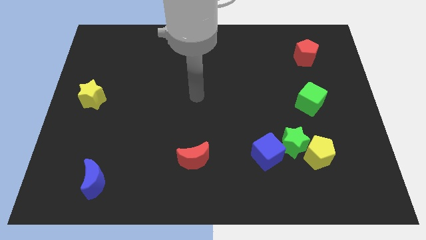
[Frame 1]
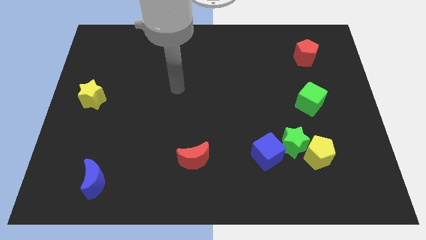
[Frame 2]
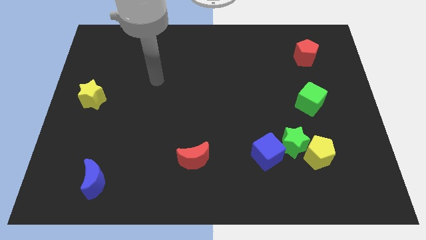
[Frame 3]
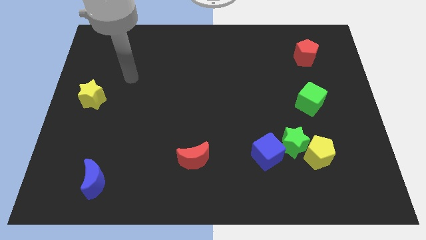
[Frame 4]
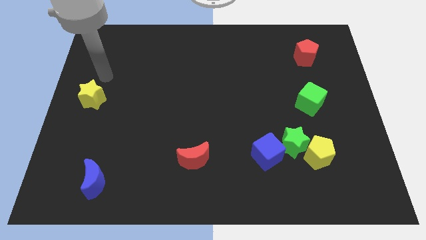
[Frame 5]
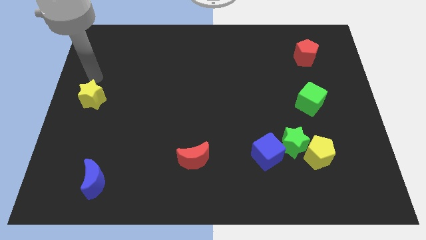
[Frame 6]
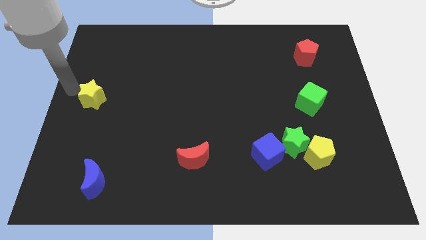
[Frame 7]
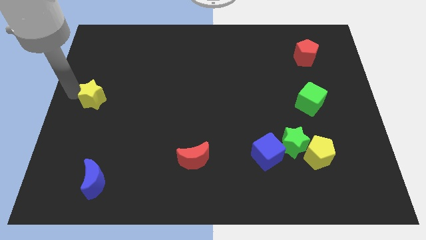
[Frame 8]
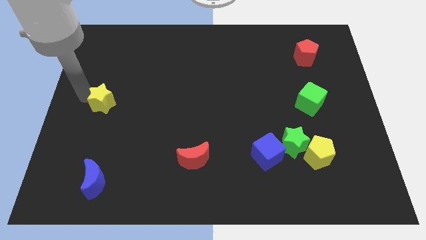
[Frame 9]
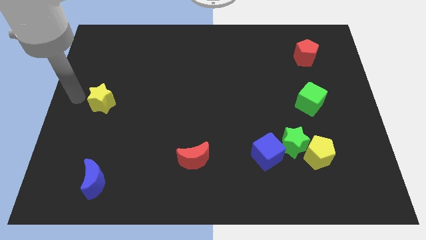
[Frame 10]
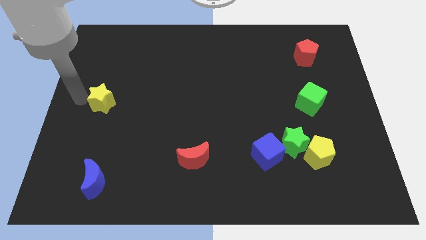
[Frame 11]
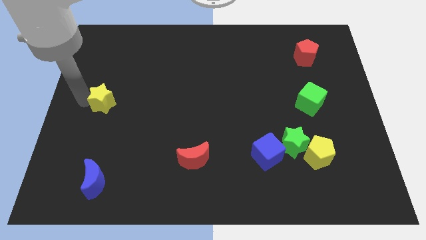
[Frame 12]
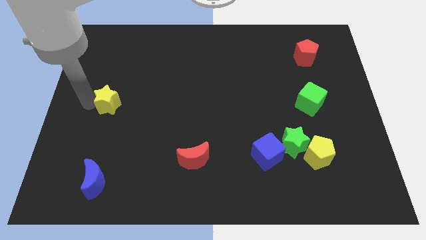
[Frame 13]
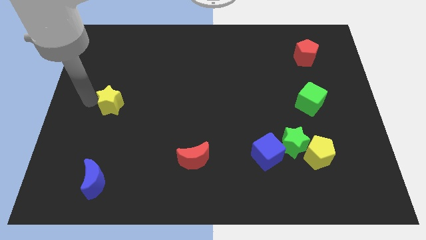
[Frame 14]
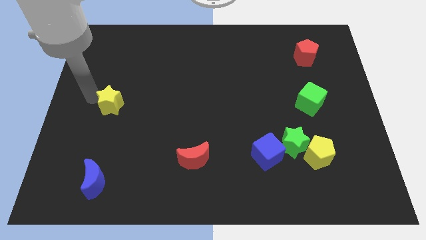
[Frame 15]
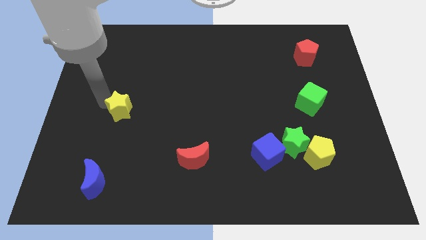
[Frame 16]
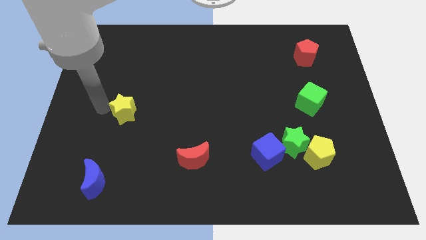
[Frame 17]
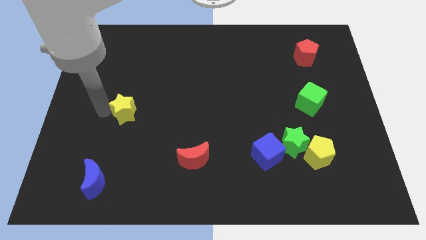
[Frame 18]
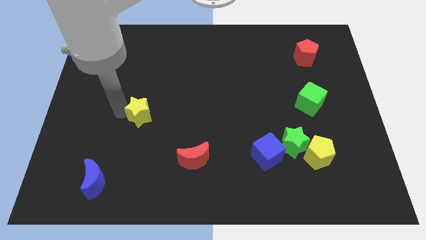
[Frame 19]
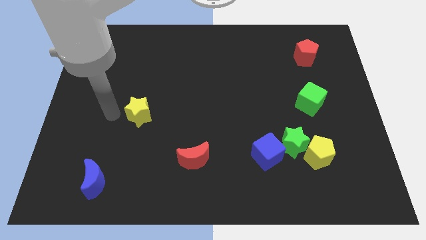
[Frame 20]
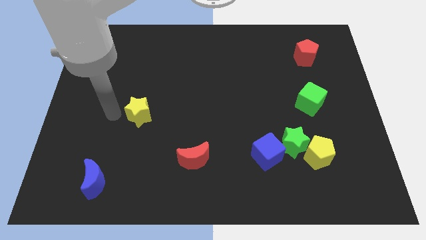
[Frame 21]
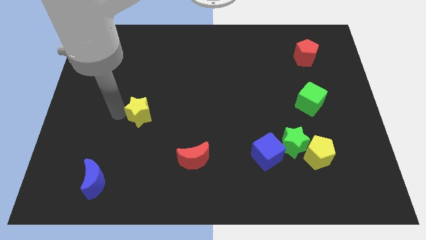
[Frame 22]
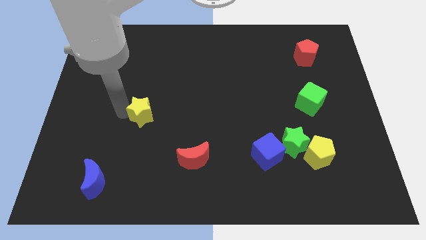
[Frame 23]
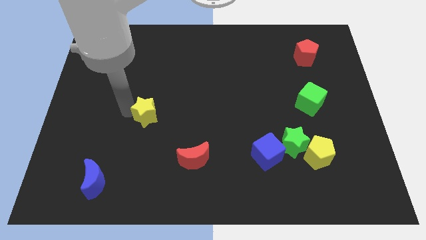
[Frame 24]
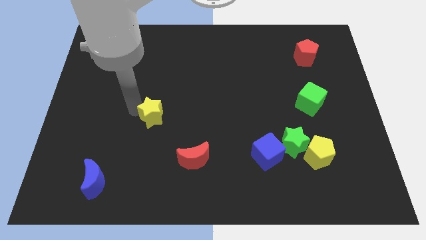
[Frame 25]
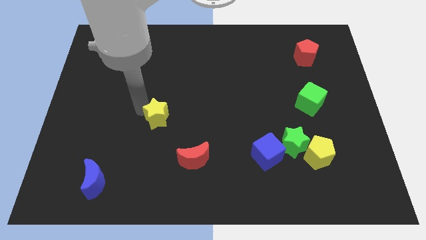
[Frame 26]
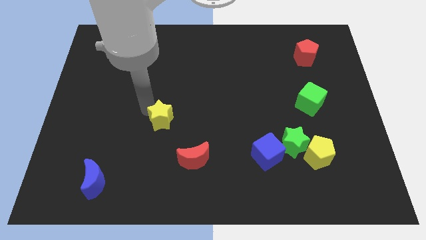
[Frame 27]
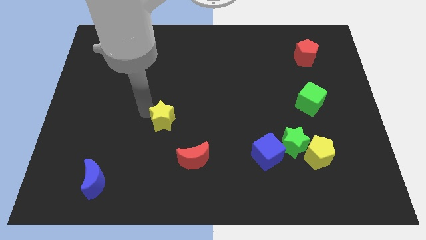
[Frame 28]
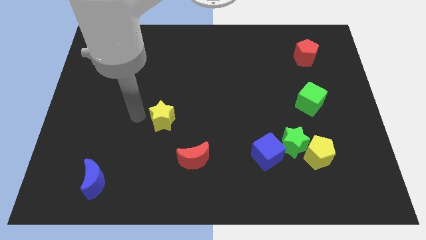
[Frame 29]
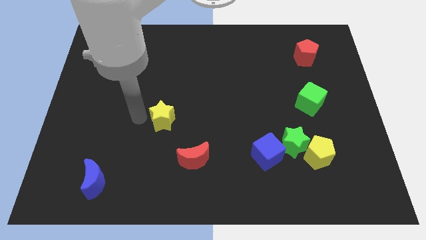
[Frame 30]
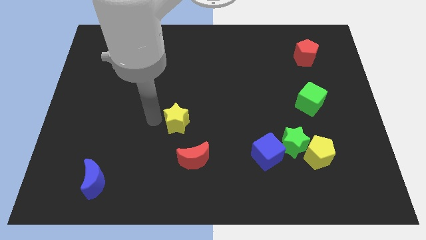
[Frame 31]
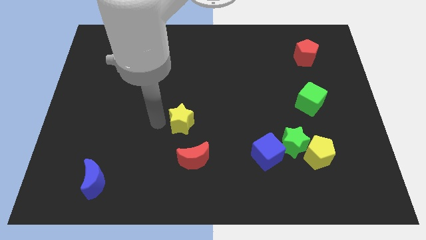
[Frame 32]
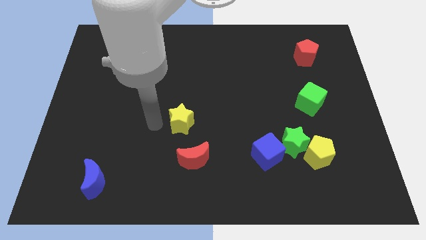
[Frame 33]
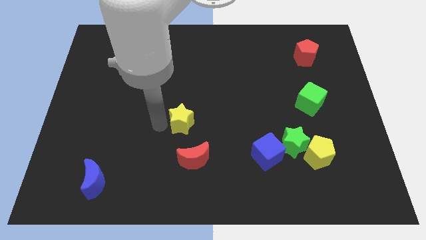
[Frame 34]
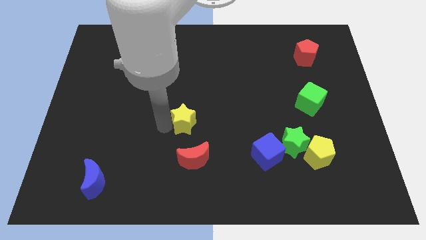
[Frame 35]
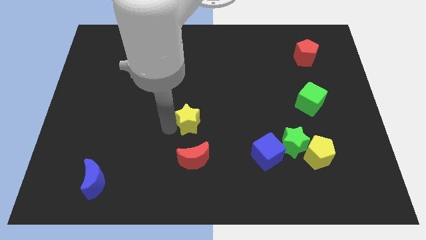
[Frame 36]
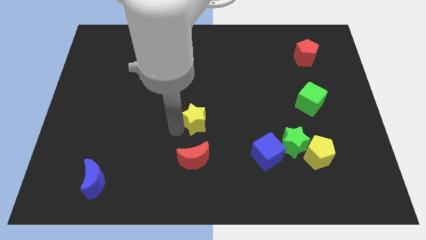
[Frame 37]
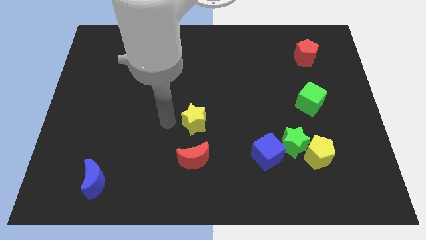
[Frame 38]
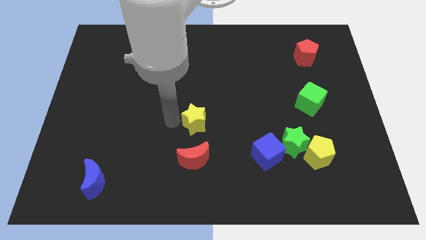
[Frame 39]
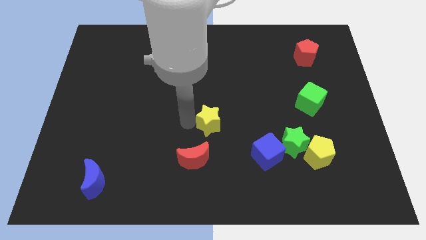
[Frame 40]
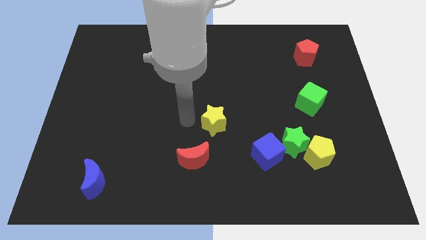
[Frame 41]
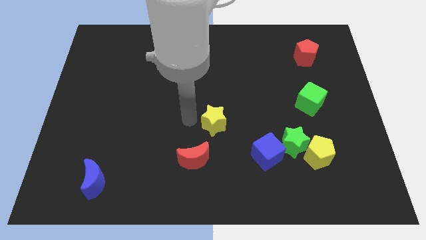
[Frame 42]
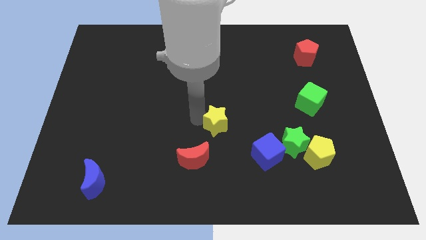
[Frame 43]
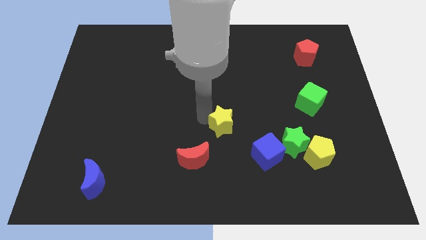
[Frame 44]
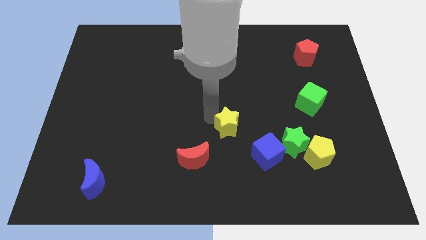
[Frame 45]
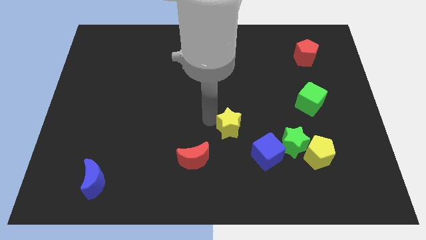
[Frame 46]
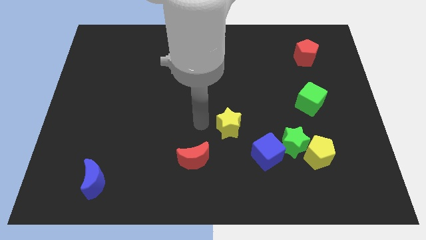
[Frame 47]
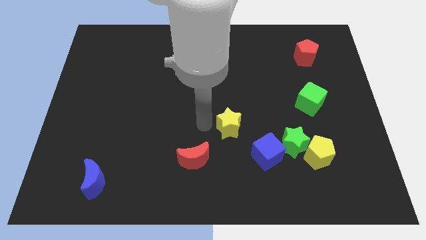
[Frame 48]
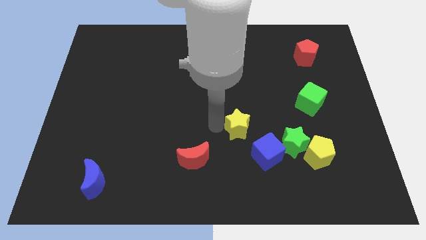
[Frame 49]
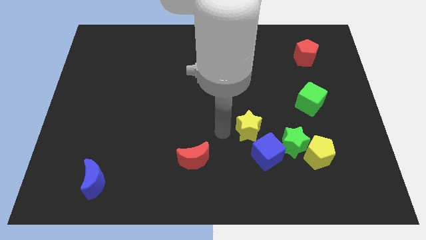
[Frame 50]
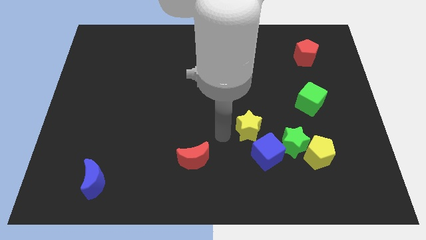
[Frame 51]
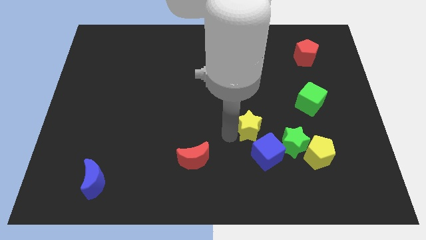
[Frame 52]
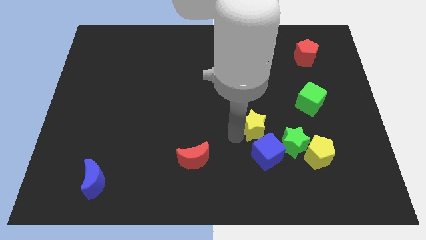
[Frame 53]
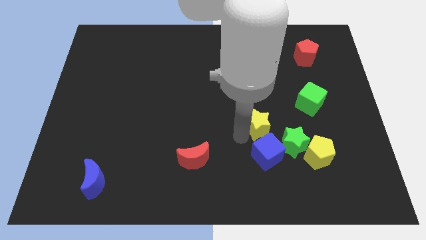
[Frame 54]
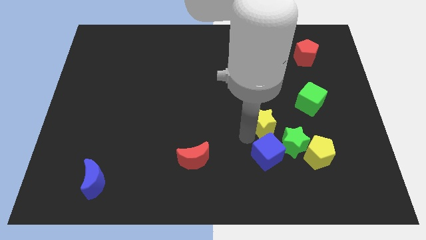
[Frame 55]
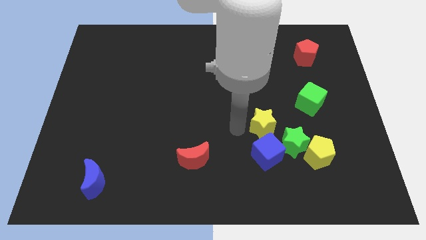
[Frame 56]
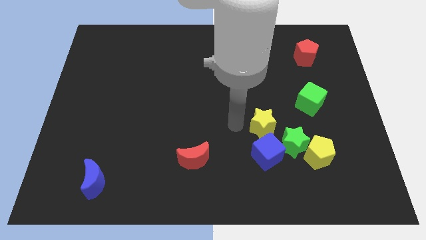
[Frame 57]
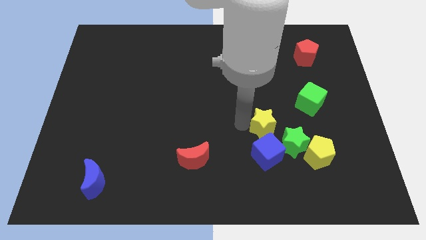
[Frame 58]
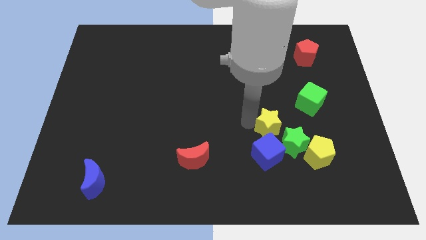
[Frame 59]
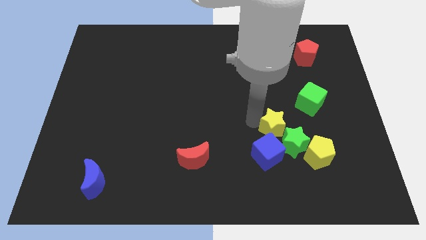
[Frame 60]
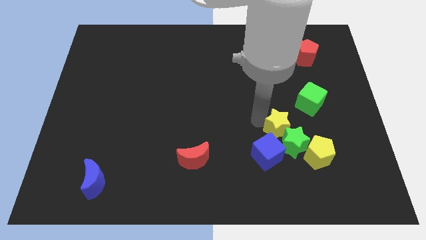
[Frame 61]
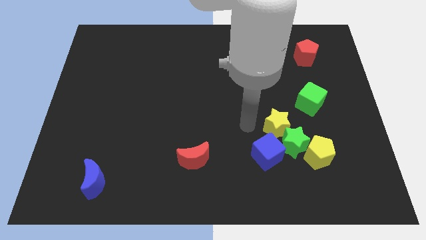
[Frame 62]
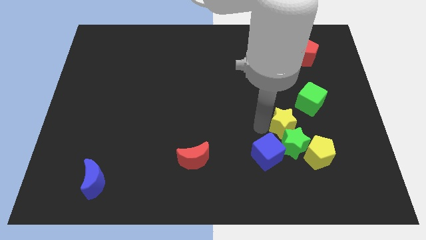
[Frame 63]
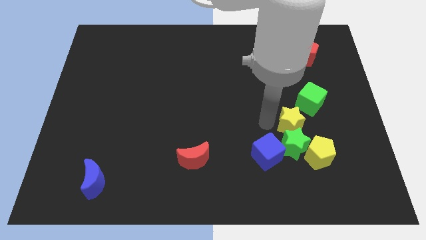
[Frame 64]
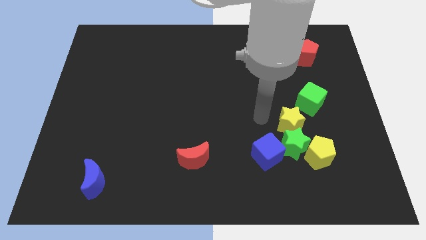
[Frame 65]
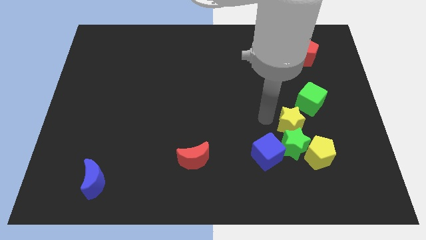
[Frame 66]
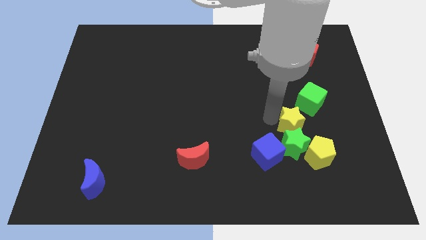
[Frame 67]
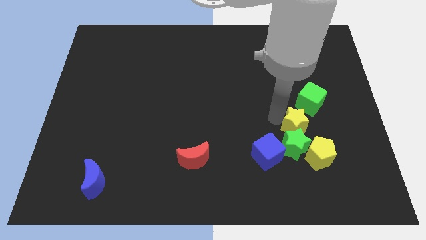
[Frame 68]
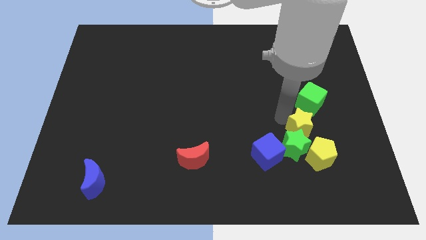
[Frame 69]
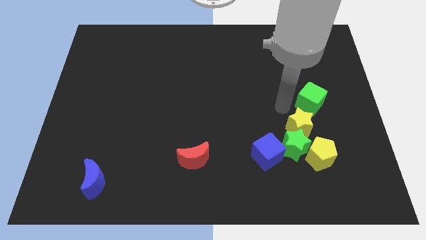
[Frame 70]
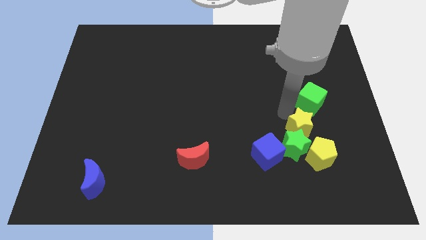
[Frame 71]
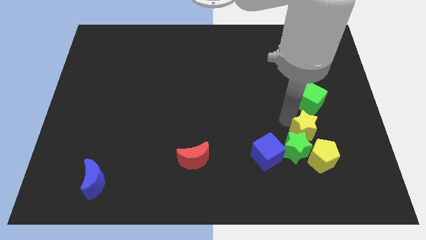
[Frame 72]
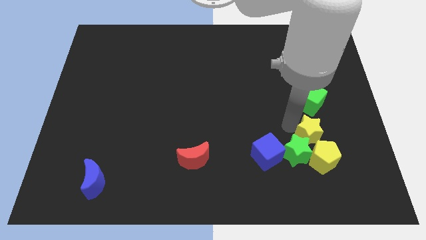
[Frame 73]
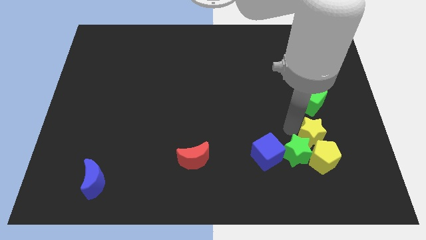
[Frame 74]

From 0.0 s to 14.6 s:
move the yellow star close to the yellow pentagon
